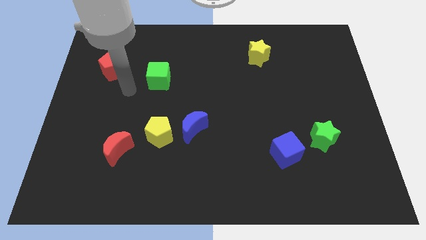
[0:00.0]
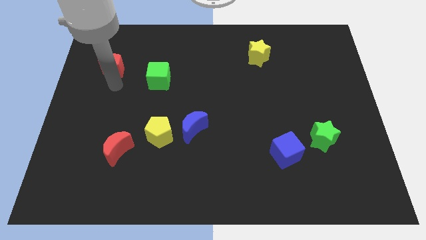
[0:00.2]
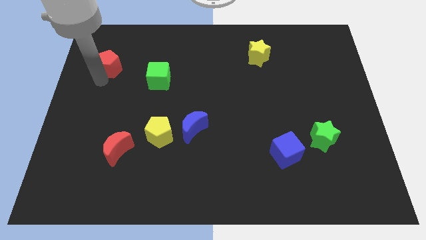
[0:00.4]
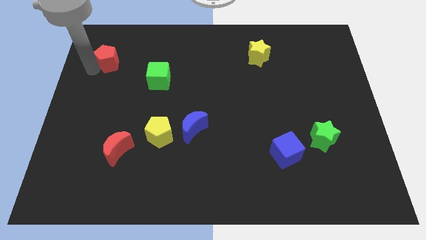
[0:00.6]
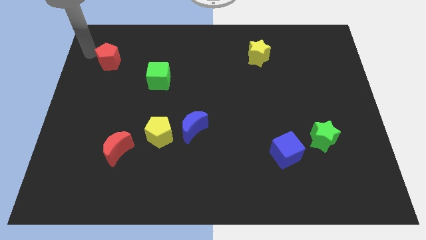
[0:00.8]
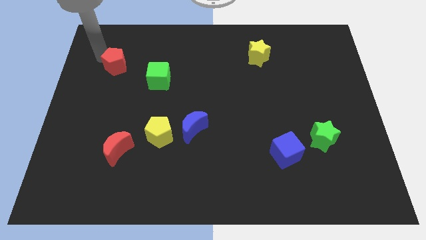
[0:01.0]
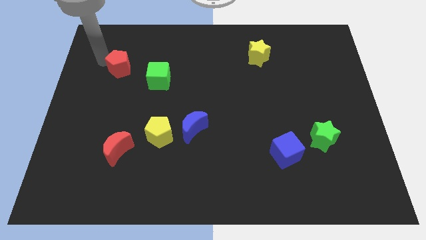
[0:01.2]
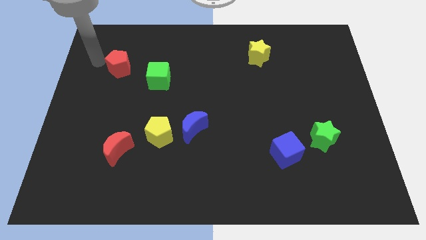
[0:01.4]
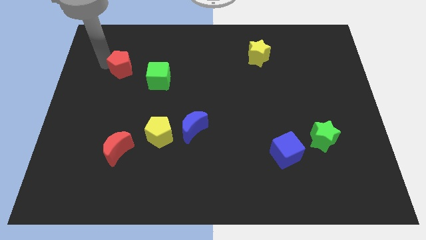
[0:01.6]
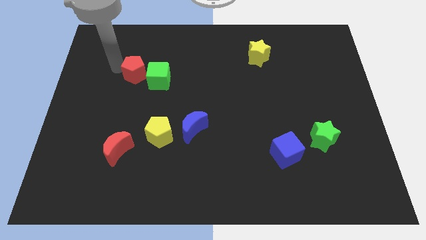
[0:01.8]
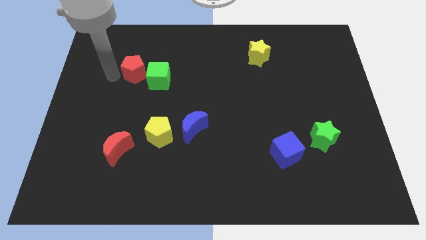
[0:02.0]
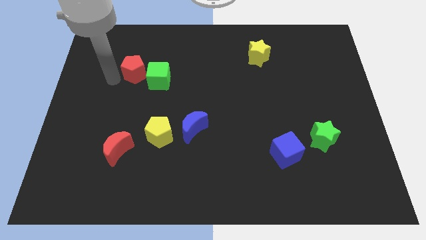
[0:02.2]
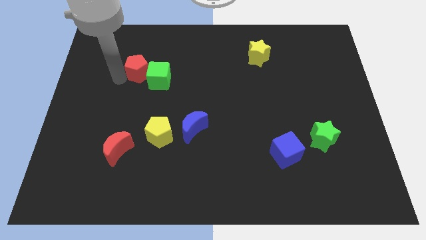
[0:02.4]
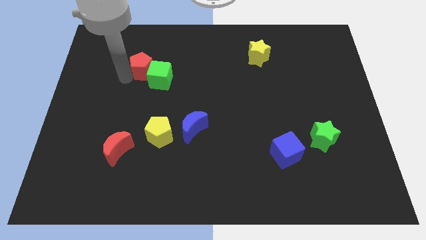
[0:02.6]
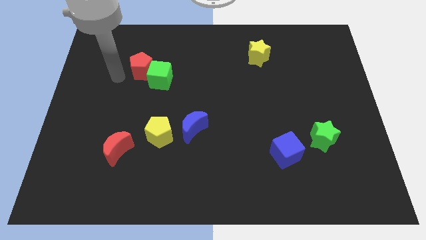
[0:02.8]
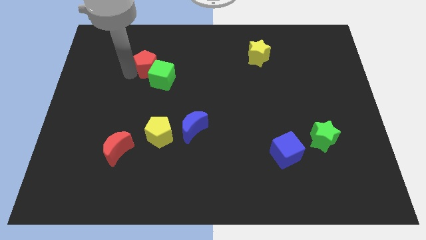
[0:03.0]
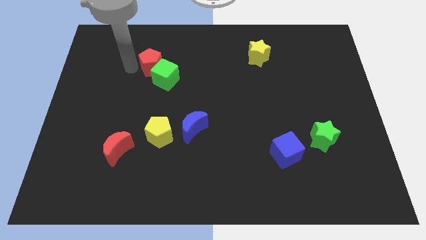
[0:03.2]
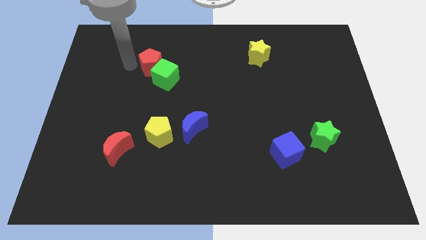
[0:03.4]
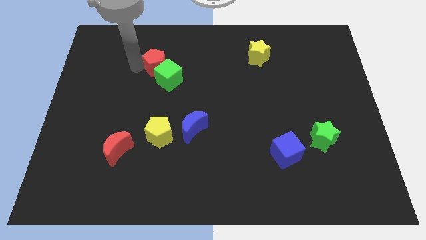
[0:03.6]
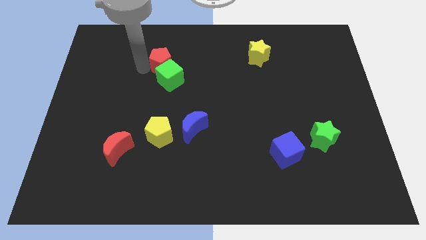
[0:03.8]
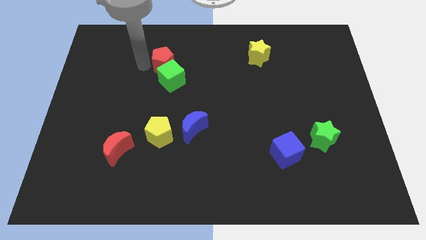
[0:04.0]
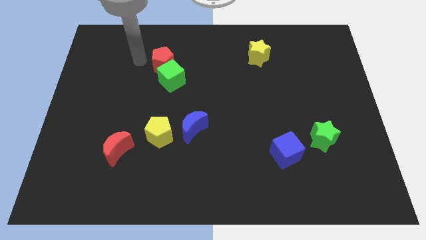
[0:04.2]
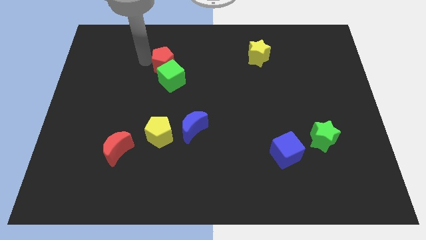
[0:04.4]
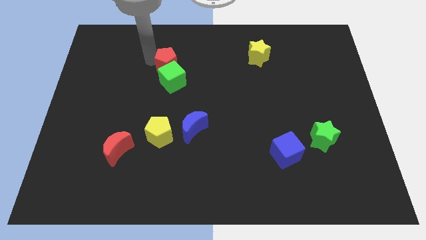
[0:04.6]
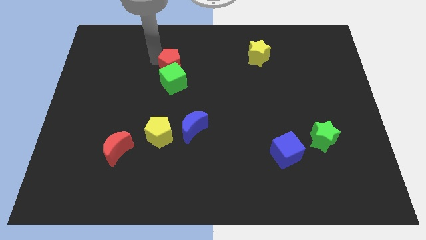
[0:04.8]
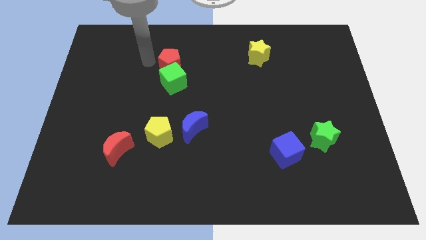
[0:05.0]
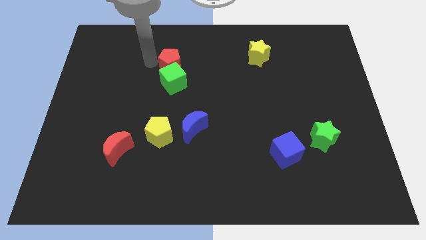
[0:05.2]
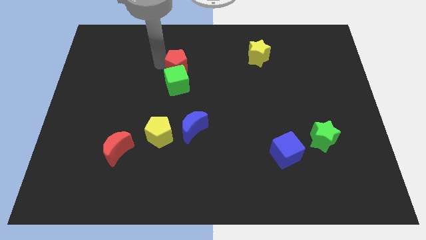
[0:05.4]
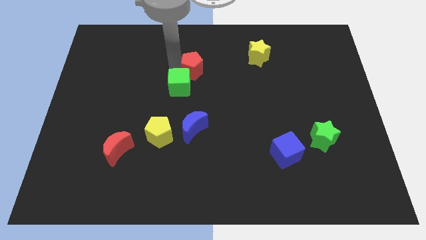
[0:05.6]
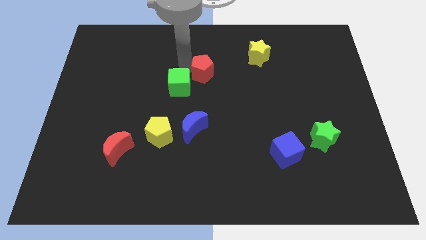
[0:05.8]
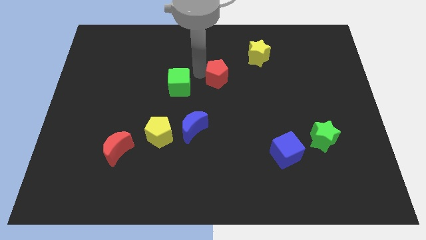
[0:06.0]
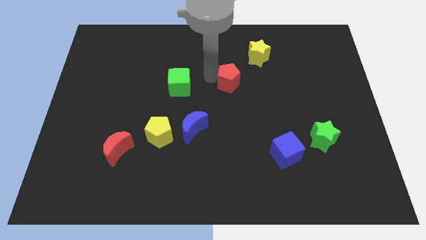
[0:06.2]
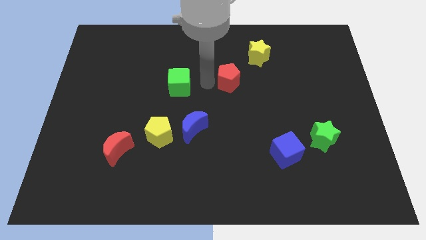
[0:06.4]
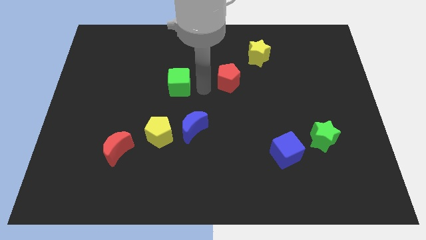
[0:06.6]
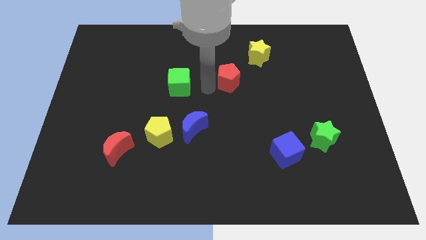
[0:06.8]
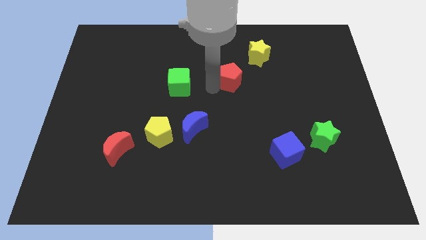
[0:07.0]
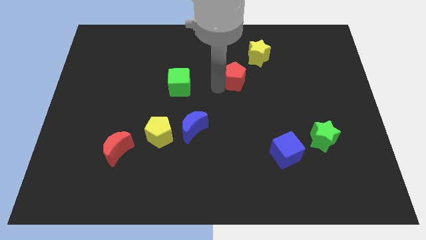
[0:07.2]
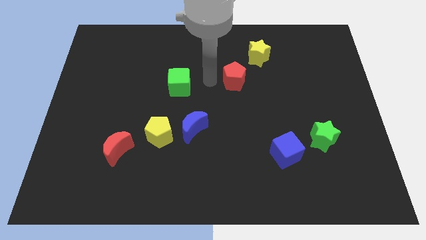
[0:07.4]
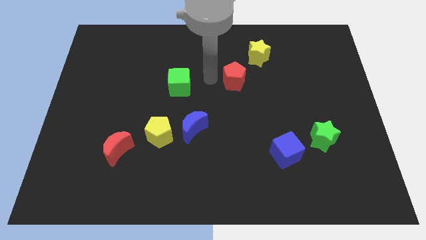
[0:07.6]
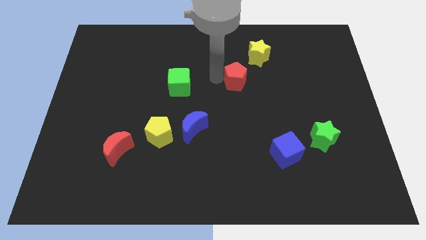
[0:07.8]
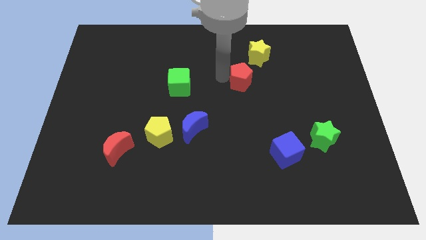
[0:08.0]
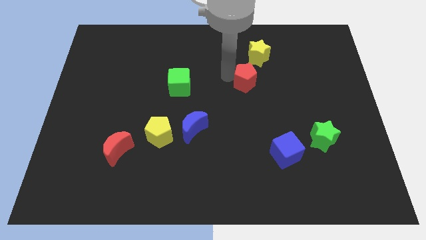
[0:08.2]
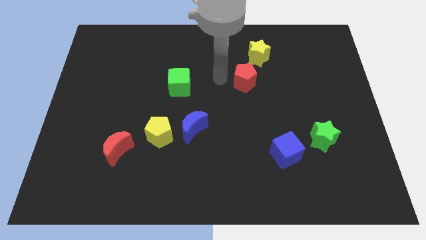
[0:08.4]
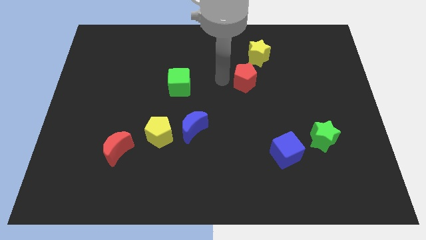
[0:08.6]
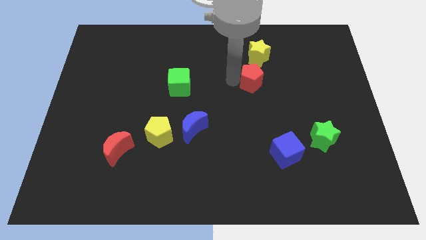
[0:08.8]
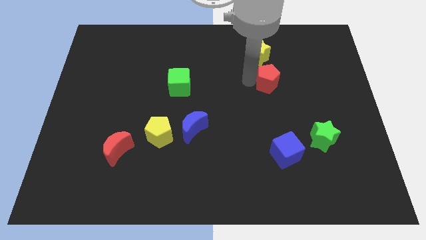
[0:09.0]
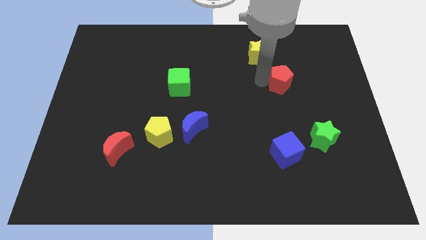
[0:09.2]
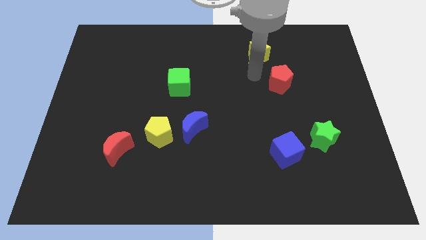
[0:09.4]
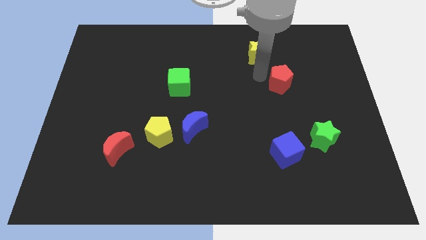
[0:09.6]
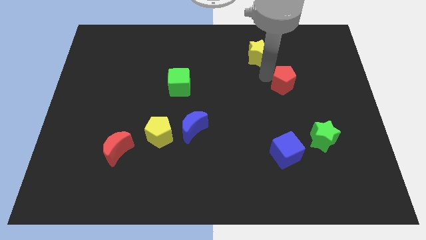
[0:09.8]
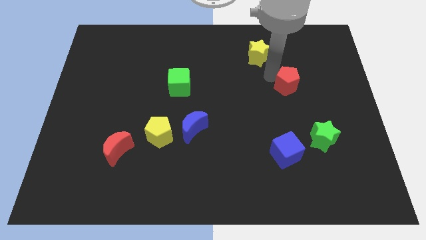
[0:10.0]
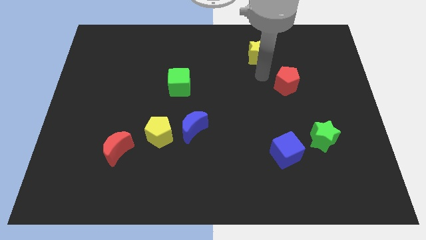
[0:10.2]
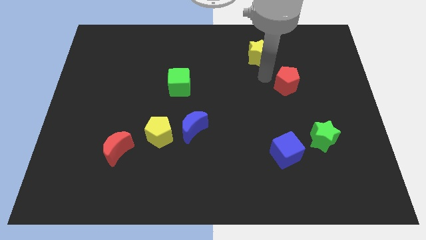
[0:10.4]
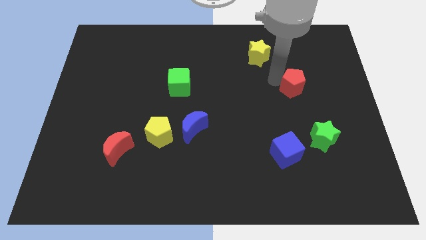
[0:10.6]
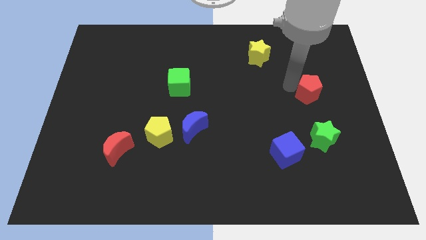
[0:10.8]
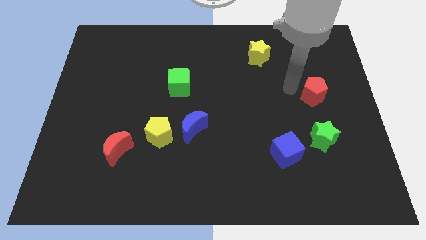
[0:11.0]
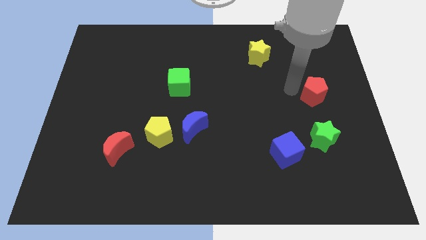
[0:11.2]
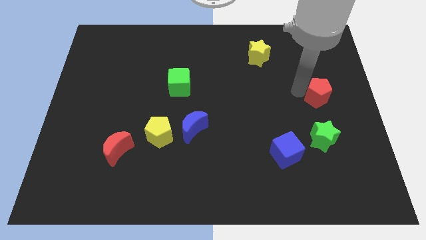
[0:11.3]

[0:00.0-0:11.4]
put the red pentagon to the right side
